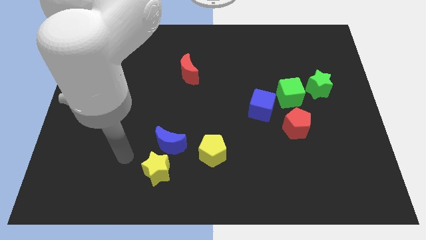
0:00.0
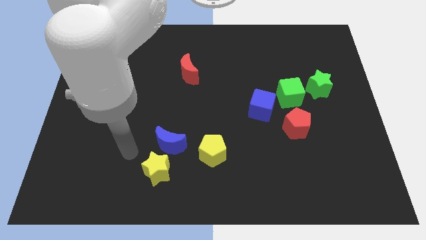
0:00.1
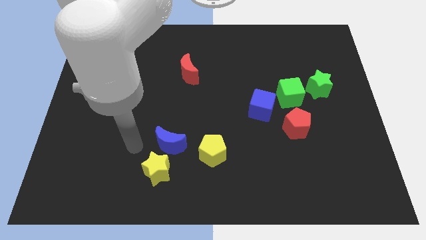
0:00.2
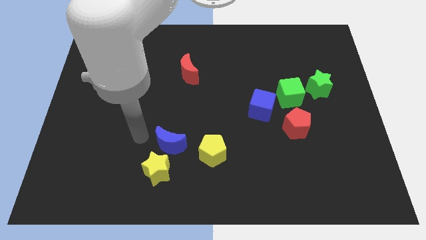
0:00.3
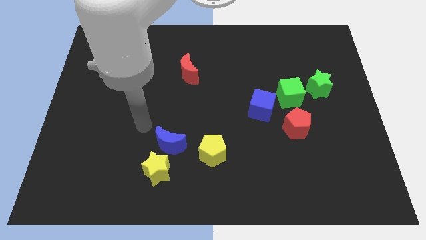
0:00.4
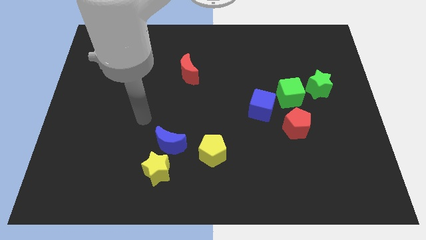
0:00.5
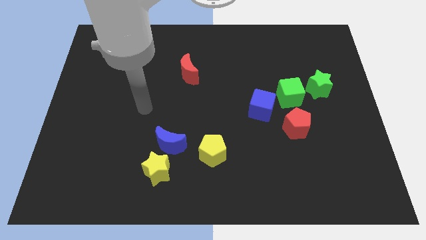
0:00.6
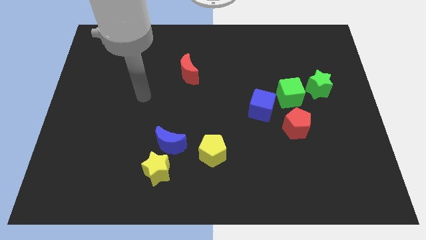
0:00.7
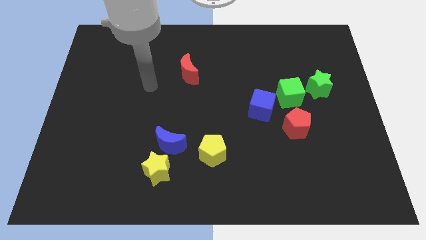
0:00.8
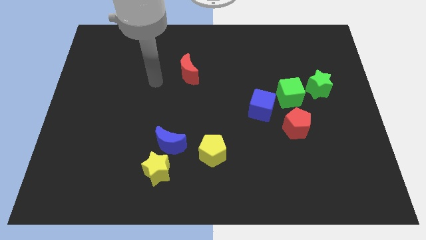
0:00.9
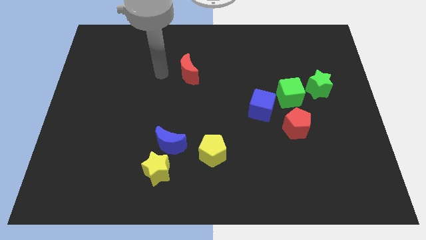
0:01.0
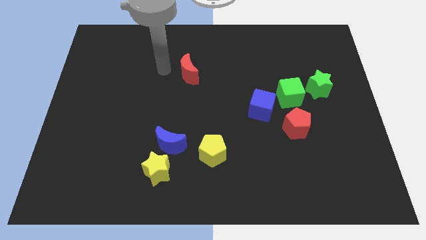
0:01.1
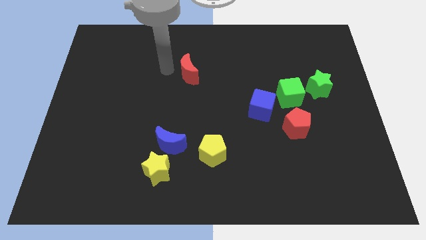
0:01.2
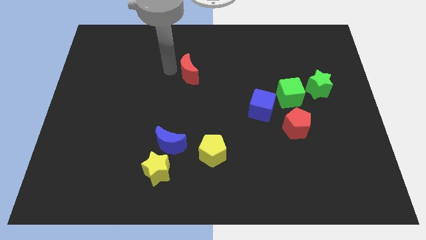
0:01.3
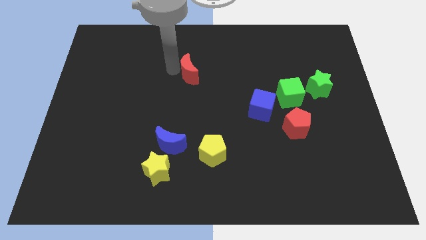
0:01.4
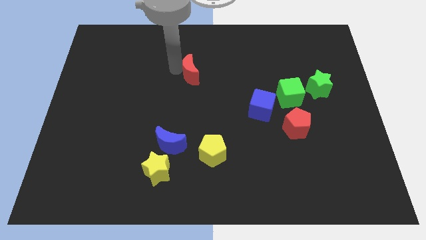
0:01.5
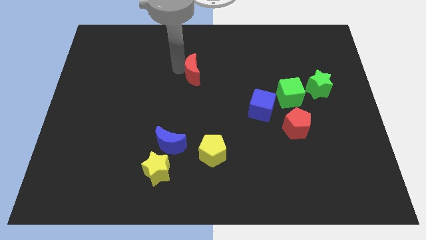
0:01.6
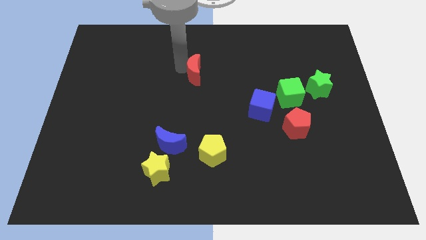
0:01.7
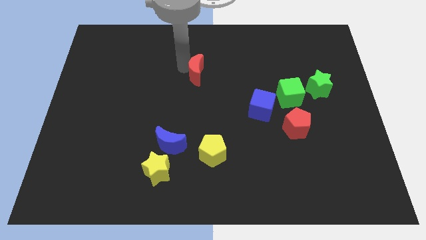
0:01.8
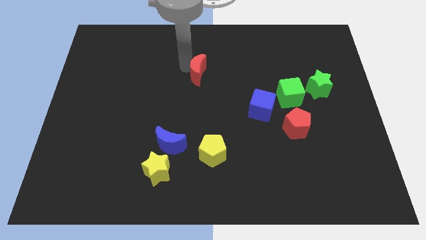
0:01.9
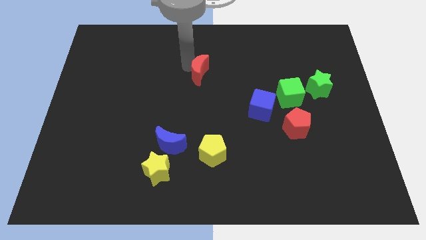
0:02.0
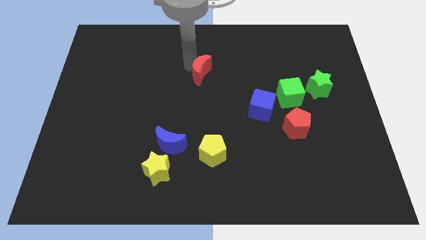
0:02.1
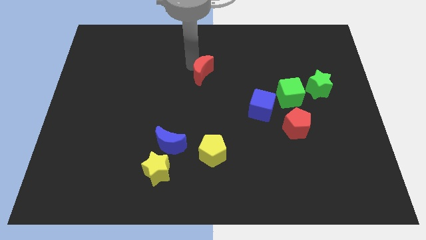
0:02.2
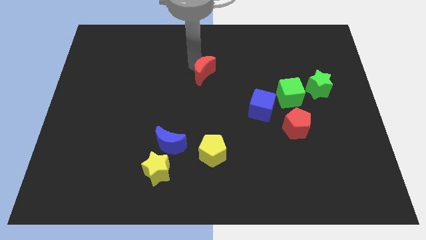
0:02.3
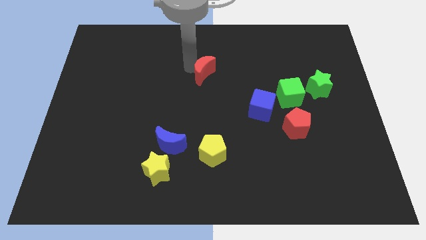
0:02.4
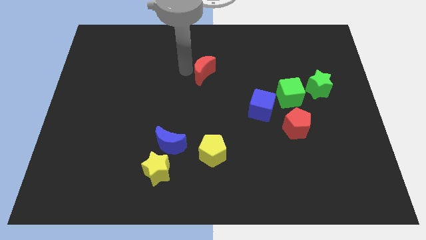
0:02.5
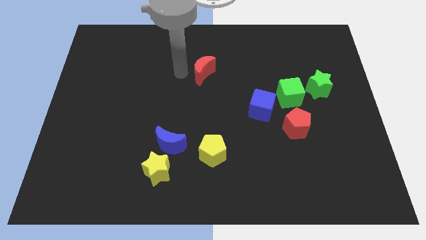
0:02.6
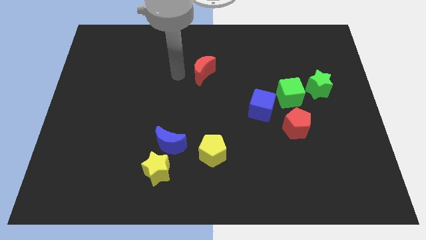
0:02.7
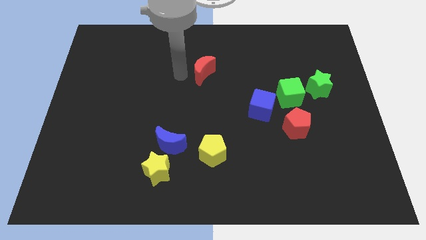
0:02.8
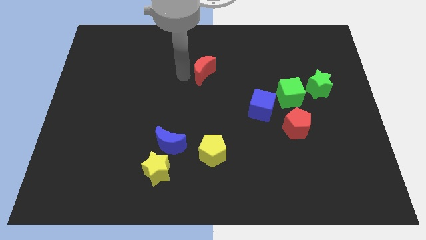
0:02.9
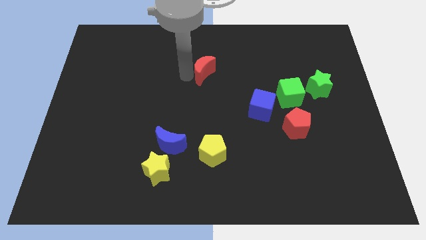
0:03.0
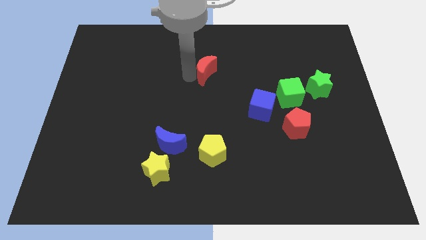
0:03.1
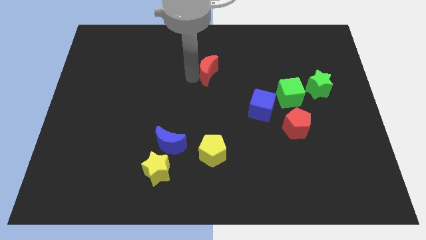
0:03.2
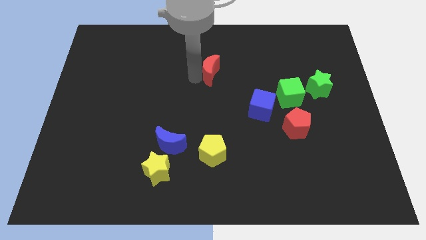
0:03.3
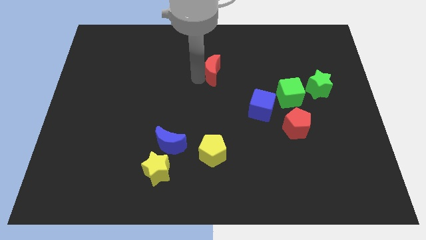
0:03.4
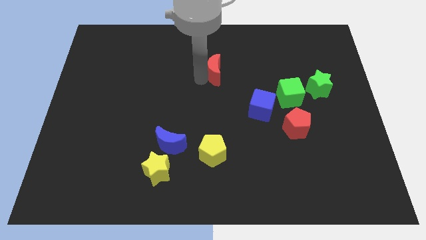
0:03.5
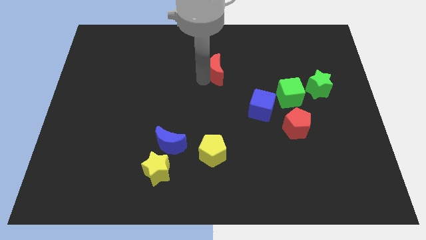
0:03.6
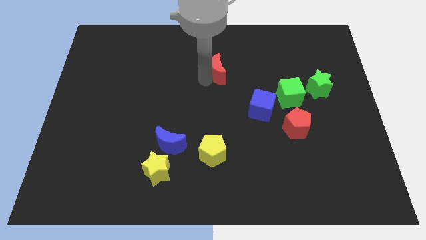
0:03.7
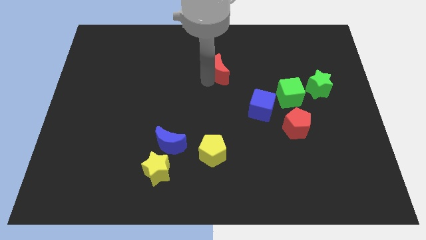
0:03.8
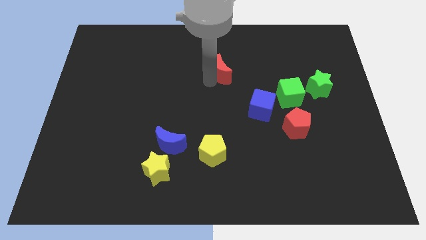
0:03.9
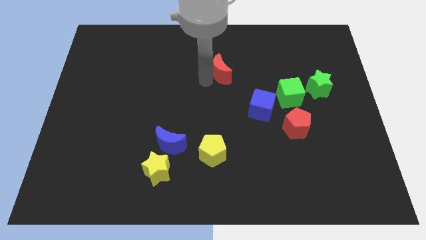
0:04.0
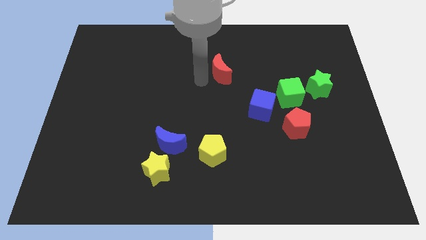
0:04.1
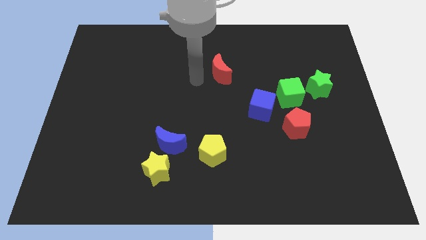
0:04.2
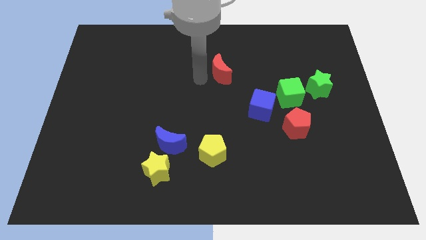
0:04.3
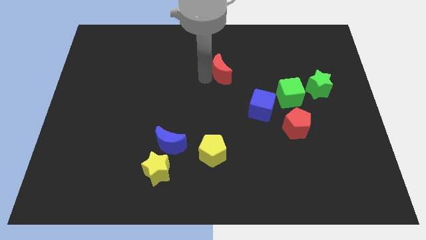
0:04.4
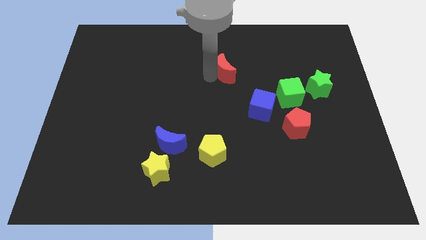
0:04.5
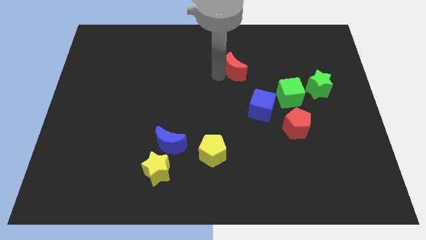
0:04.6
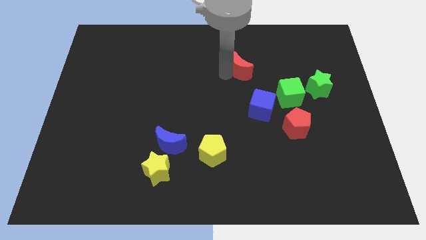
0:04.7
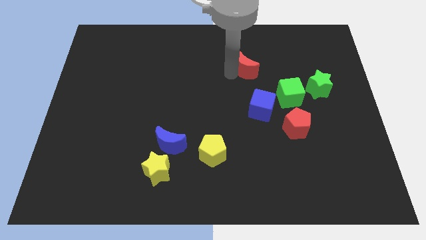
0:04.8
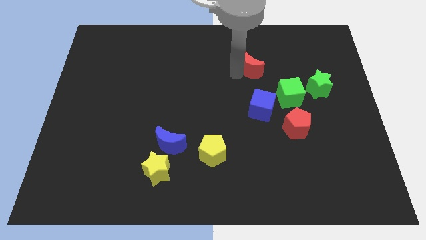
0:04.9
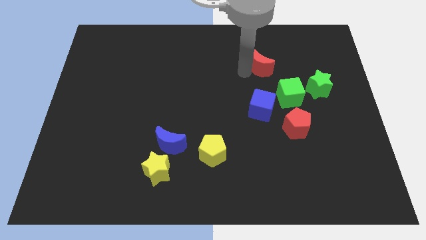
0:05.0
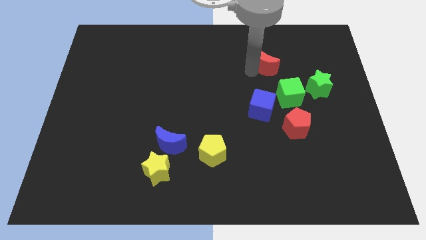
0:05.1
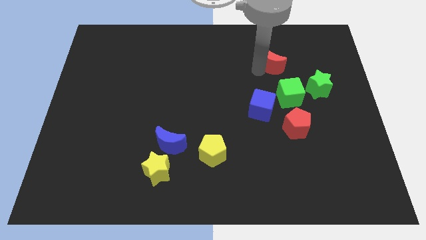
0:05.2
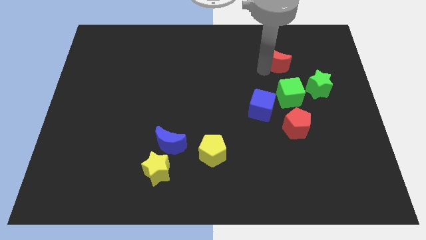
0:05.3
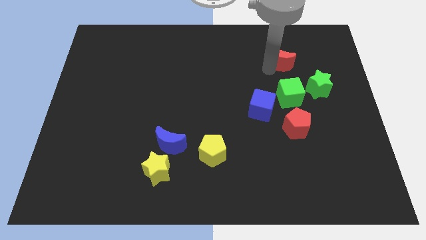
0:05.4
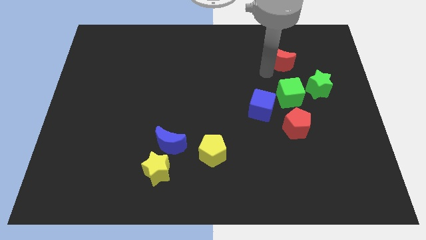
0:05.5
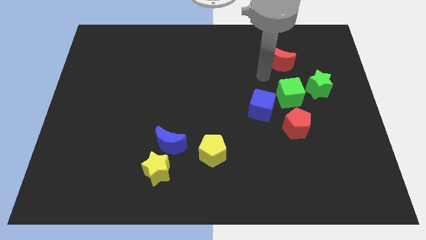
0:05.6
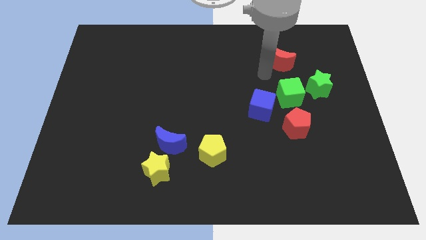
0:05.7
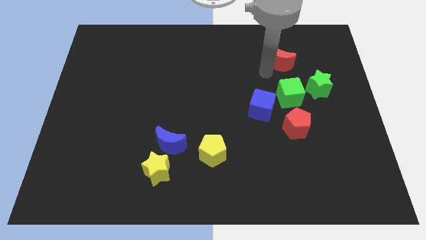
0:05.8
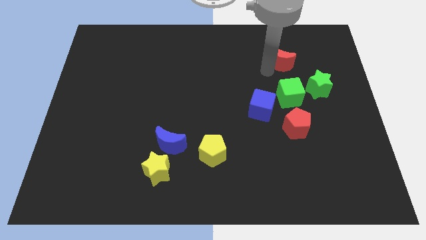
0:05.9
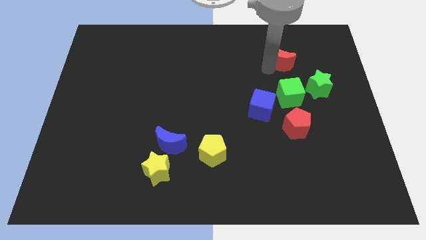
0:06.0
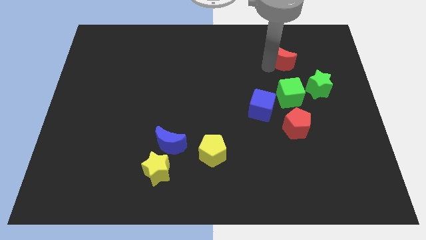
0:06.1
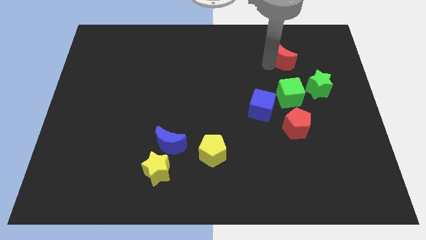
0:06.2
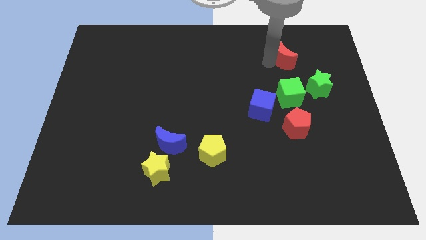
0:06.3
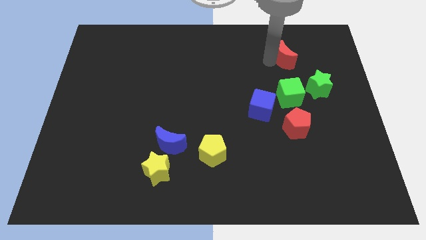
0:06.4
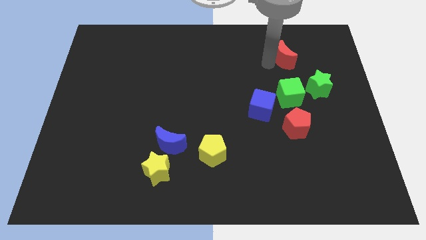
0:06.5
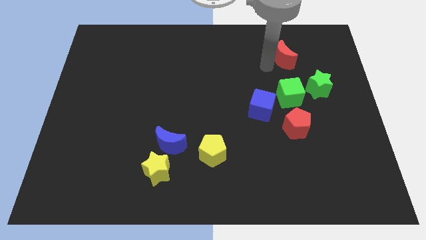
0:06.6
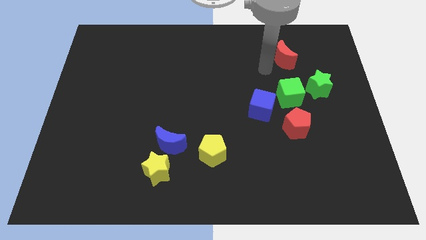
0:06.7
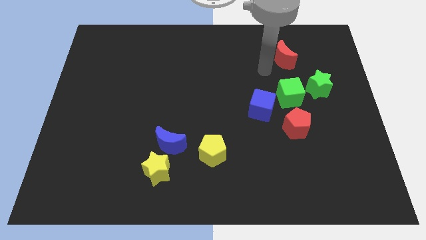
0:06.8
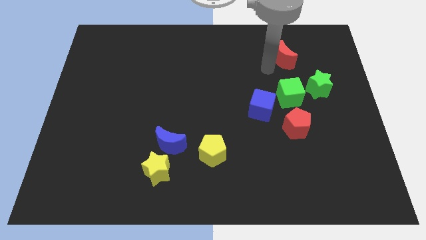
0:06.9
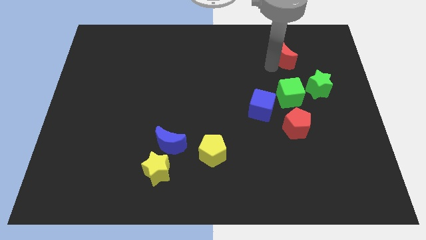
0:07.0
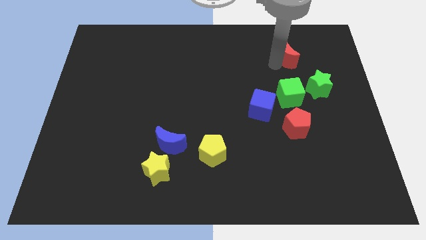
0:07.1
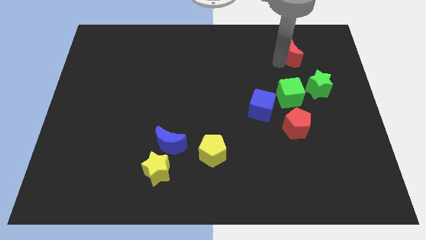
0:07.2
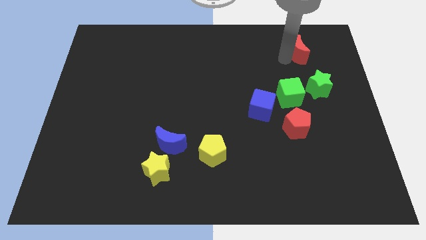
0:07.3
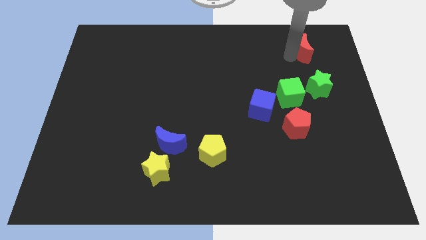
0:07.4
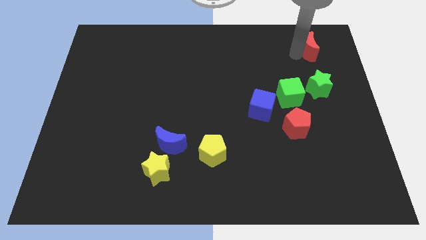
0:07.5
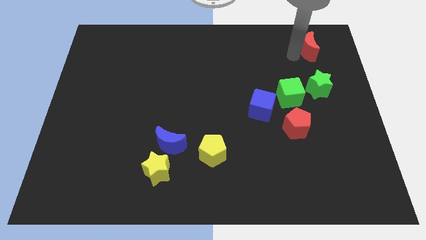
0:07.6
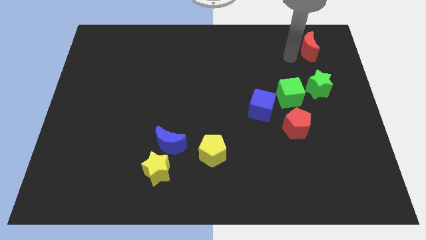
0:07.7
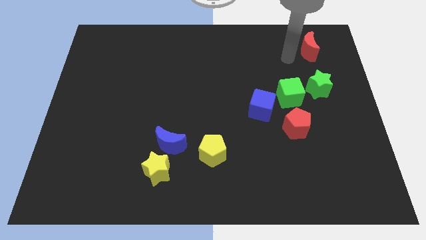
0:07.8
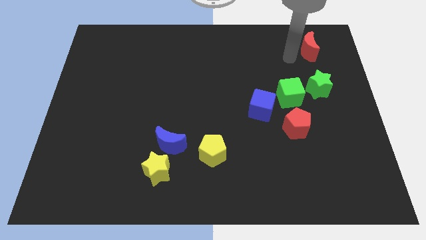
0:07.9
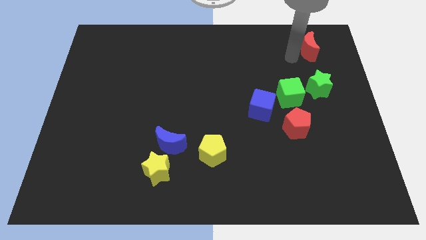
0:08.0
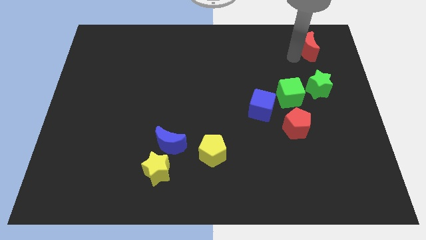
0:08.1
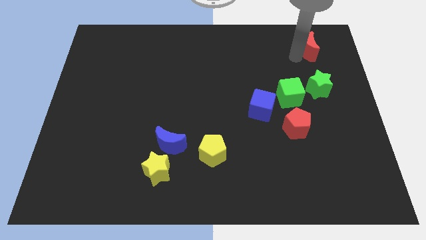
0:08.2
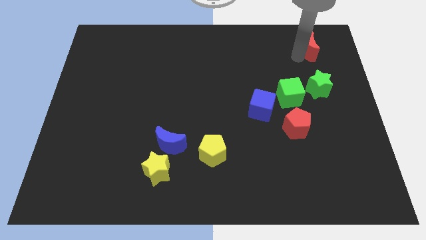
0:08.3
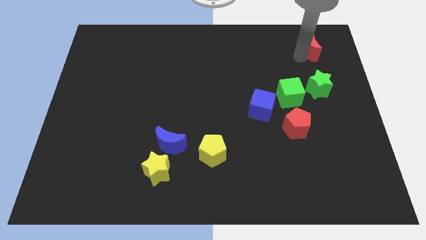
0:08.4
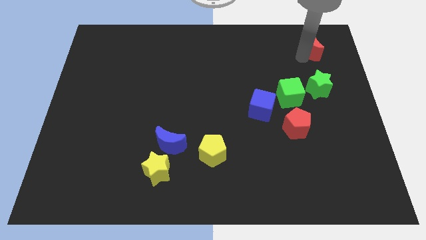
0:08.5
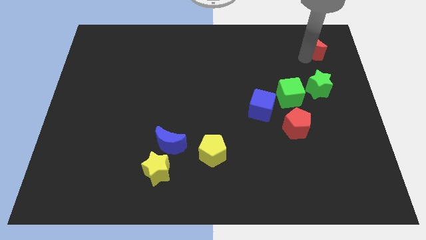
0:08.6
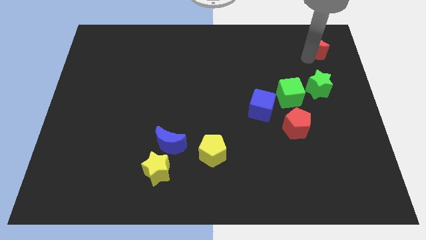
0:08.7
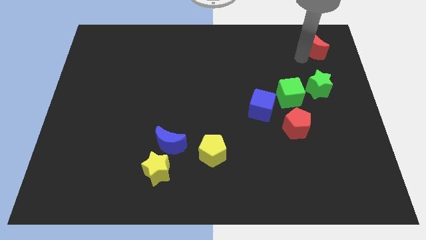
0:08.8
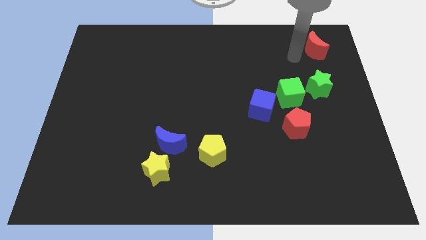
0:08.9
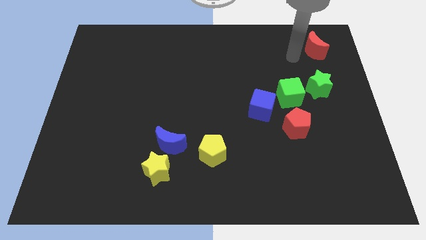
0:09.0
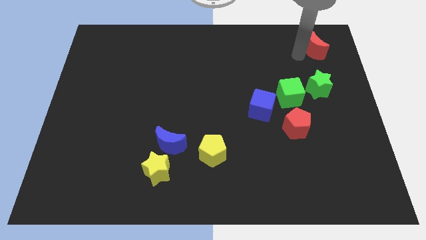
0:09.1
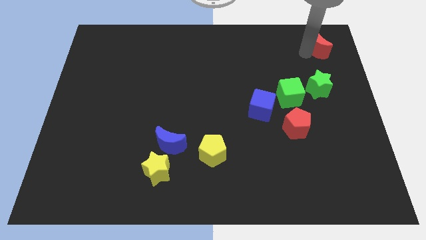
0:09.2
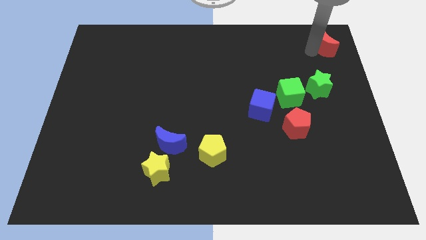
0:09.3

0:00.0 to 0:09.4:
put the red moon to the top right of the board
